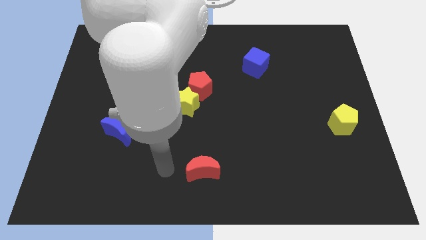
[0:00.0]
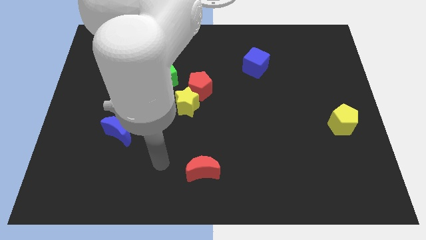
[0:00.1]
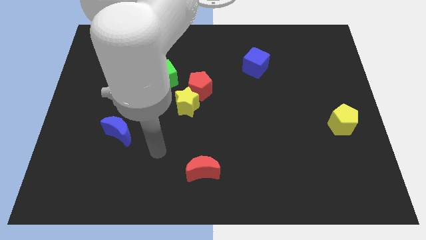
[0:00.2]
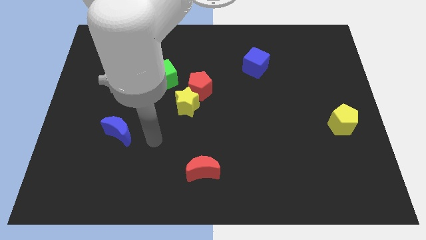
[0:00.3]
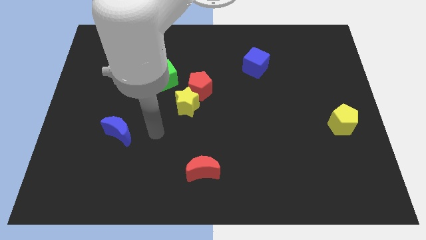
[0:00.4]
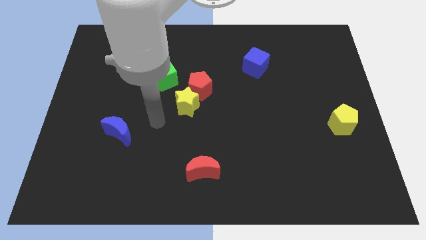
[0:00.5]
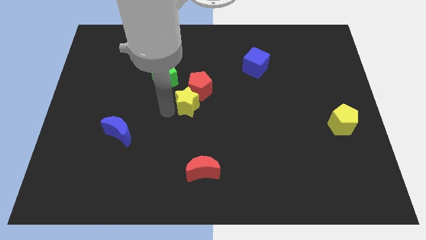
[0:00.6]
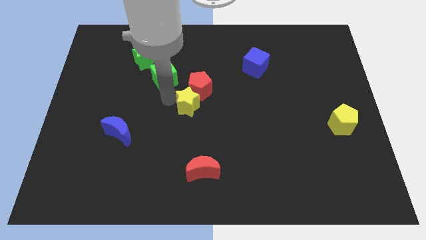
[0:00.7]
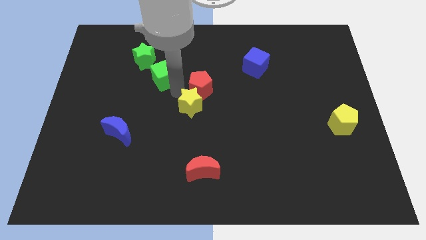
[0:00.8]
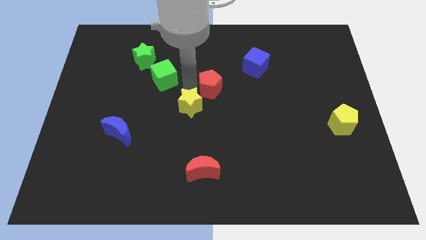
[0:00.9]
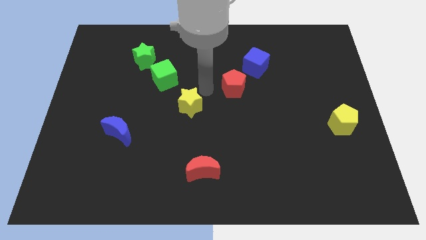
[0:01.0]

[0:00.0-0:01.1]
move the yellow star away from the red pentagon

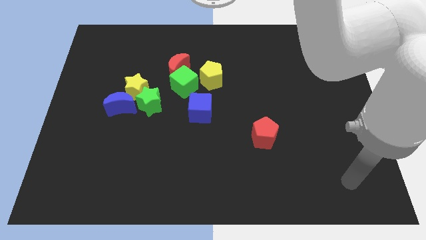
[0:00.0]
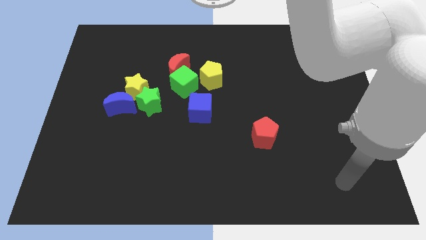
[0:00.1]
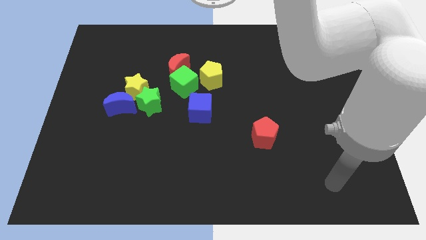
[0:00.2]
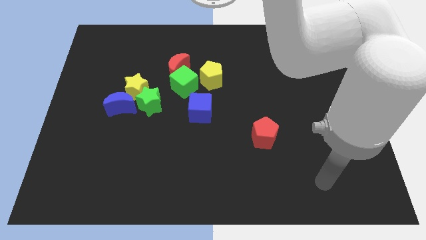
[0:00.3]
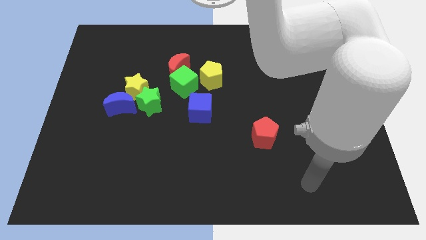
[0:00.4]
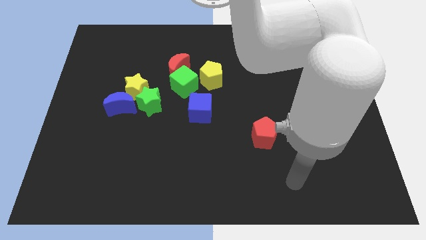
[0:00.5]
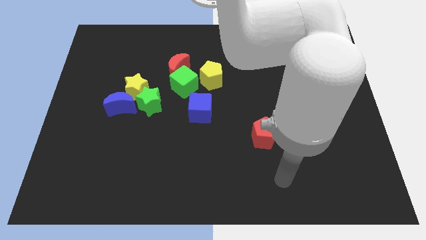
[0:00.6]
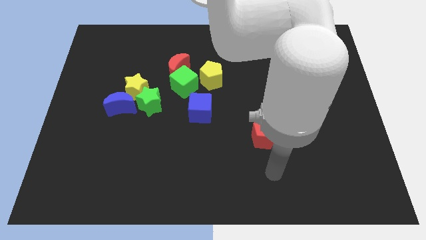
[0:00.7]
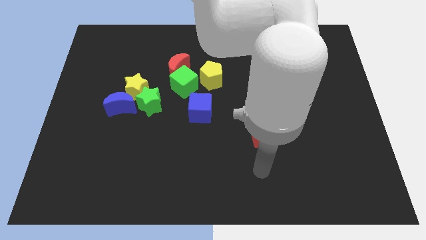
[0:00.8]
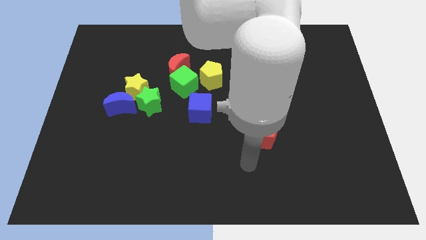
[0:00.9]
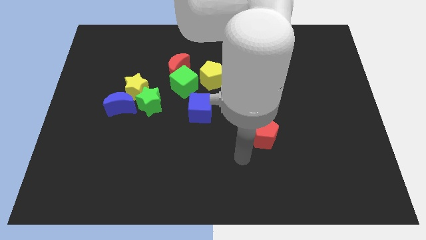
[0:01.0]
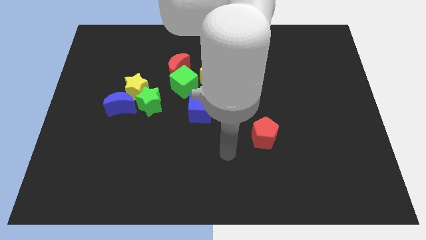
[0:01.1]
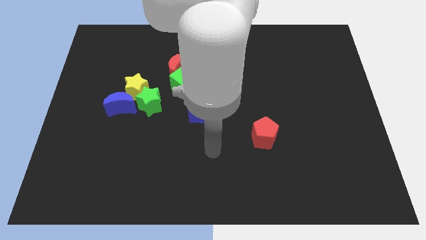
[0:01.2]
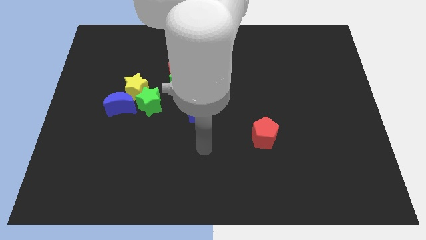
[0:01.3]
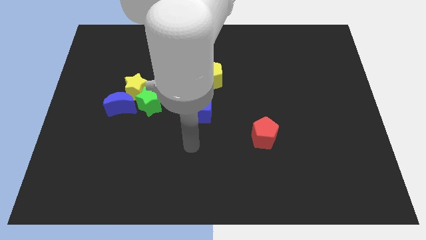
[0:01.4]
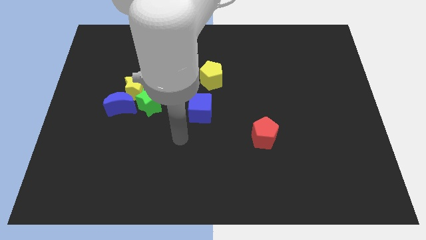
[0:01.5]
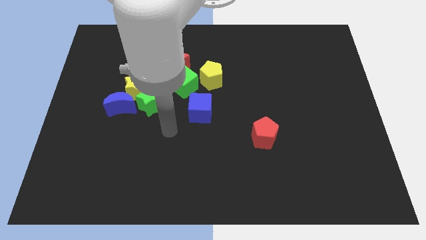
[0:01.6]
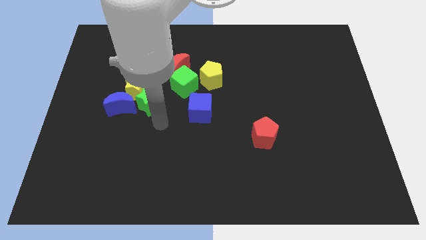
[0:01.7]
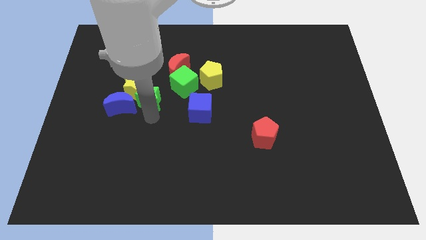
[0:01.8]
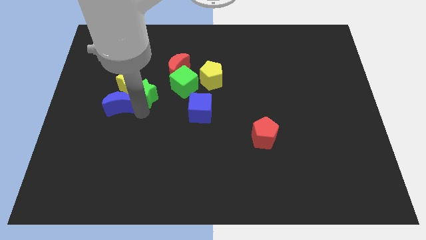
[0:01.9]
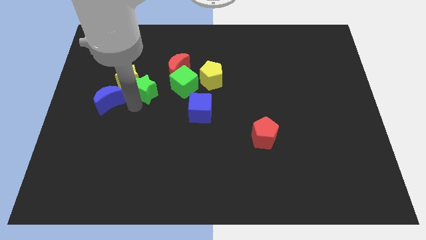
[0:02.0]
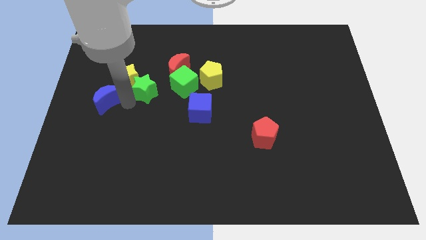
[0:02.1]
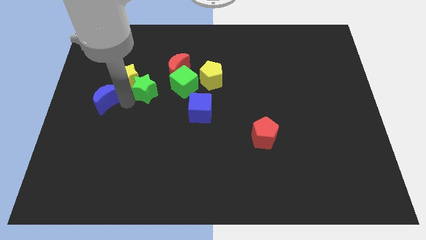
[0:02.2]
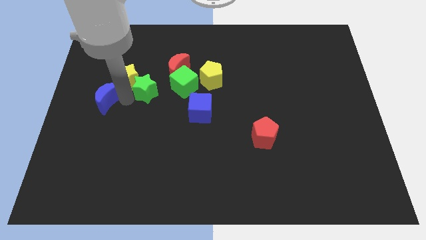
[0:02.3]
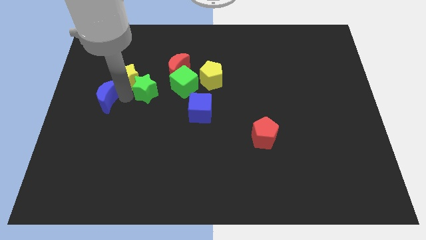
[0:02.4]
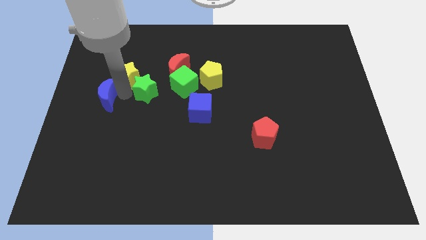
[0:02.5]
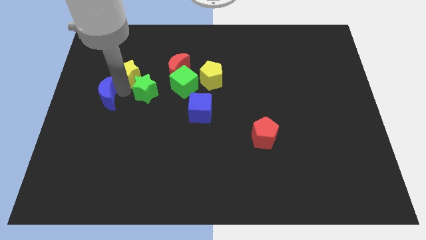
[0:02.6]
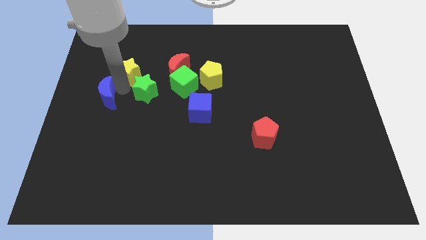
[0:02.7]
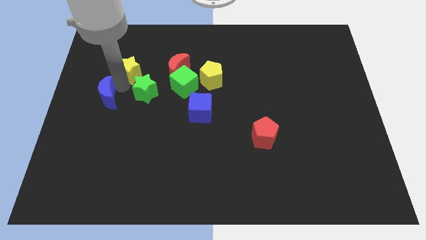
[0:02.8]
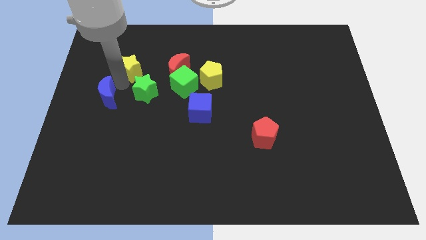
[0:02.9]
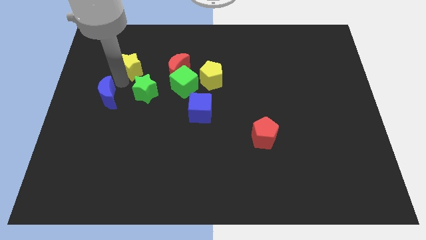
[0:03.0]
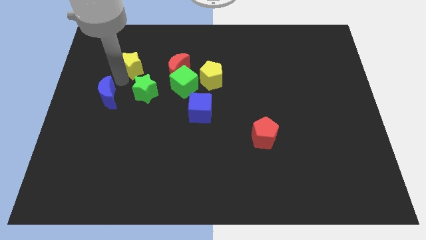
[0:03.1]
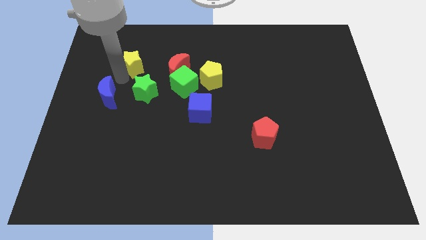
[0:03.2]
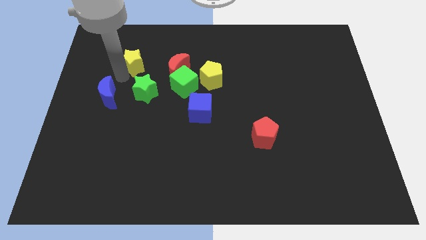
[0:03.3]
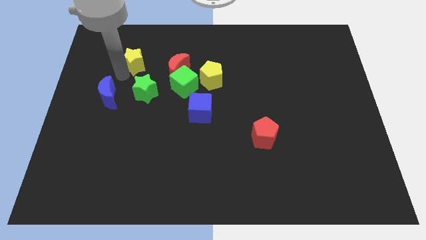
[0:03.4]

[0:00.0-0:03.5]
separate the yellow star from the green star and blue moon

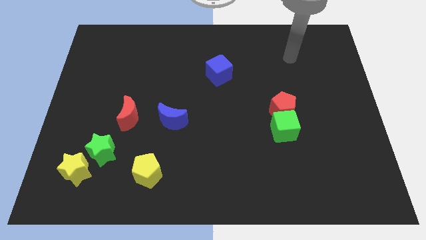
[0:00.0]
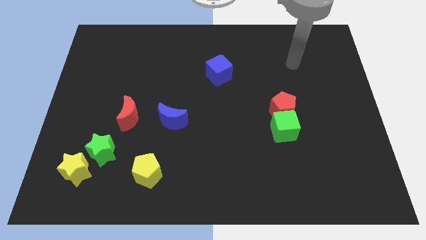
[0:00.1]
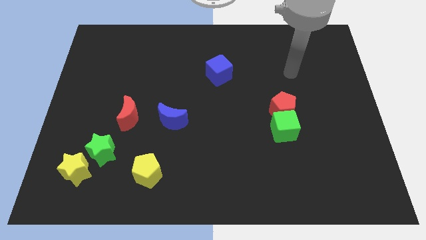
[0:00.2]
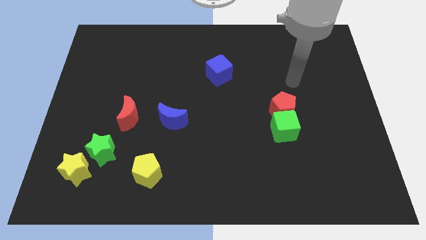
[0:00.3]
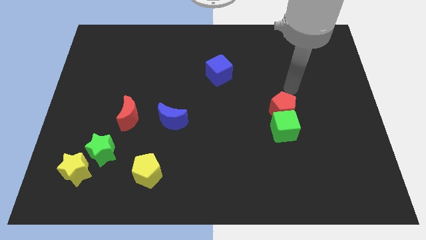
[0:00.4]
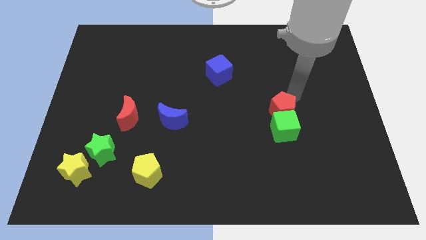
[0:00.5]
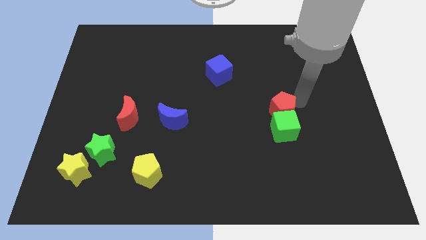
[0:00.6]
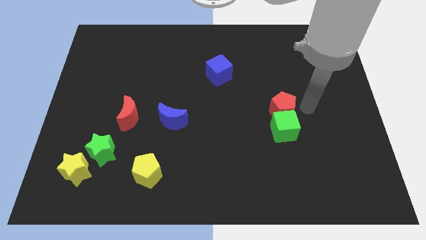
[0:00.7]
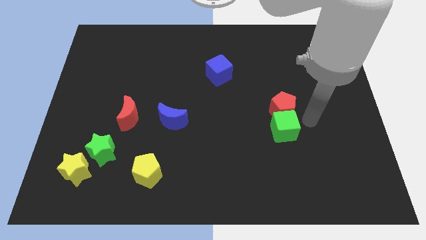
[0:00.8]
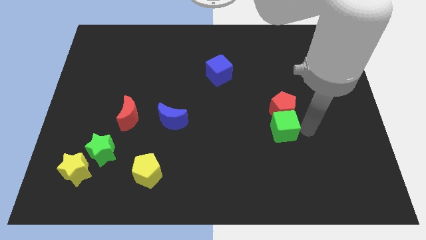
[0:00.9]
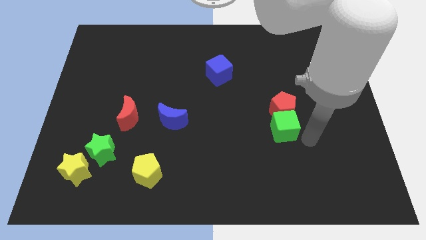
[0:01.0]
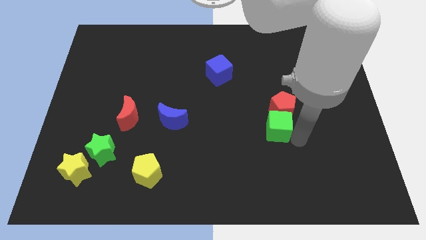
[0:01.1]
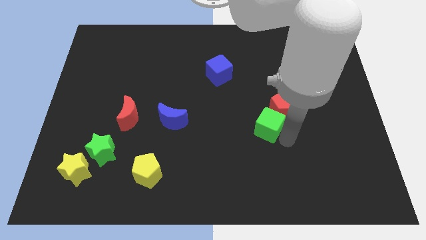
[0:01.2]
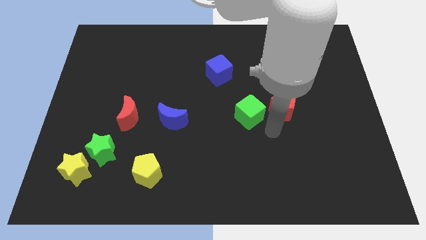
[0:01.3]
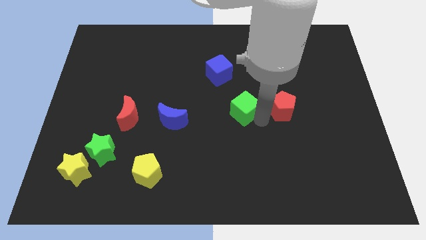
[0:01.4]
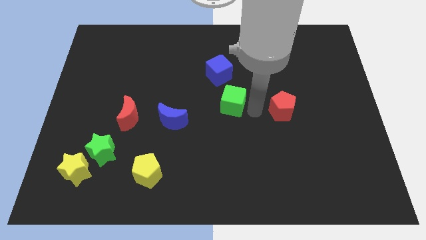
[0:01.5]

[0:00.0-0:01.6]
separate the red pentagon from the green cube

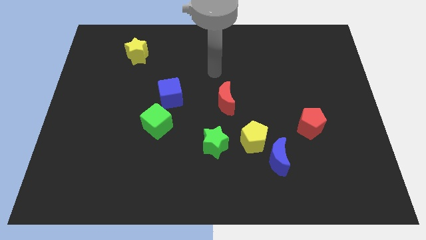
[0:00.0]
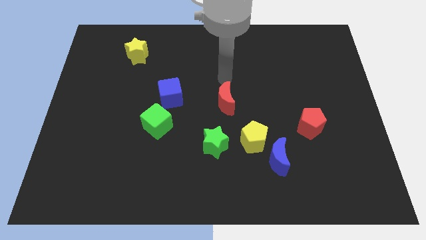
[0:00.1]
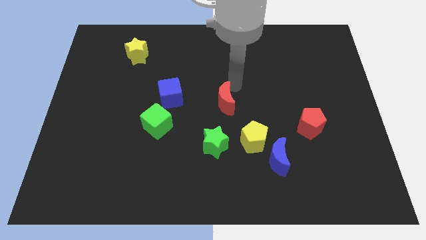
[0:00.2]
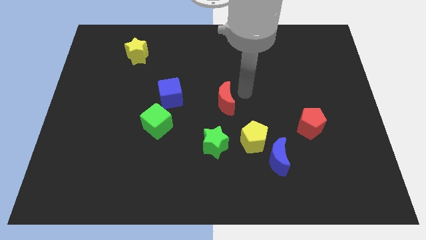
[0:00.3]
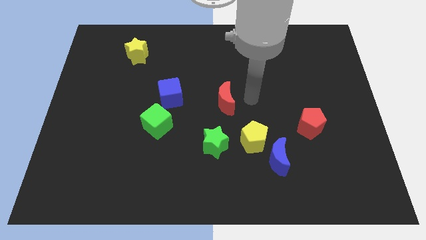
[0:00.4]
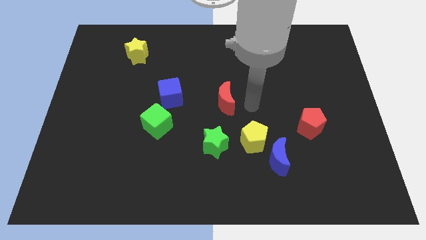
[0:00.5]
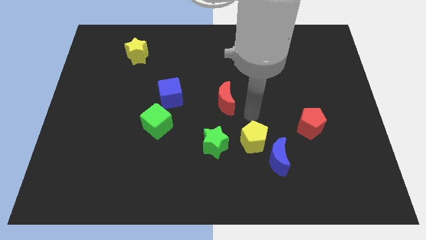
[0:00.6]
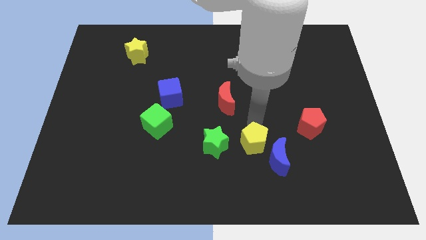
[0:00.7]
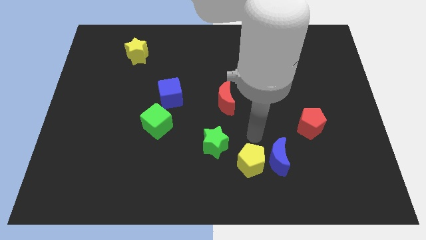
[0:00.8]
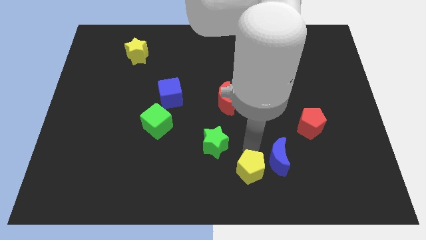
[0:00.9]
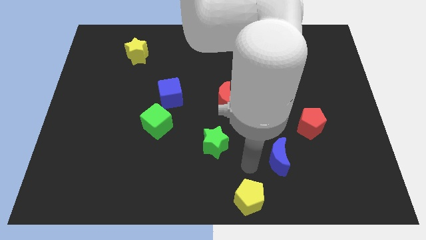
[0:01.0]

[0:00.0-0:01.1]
move the blue moon away from the yellow pentagon

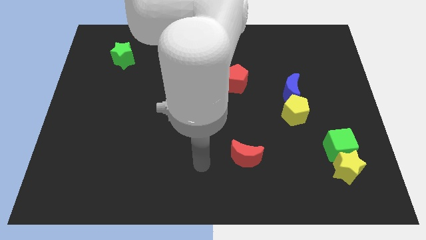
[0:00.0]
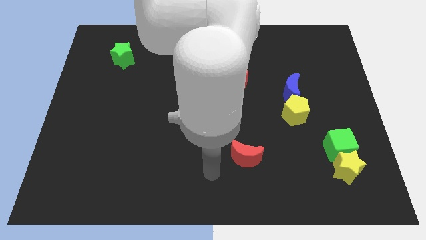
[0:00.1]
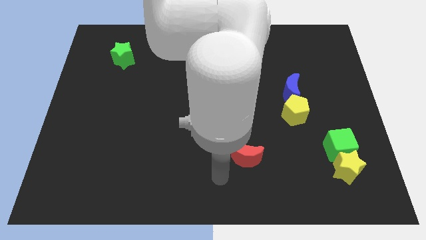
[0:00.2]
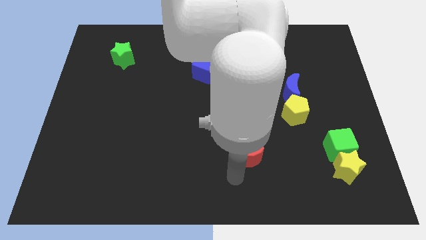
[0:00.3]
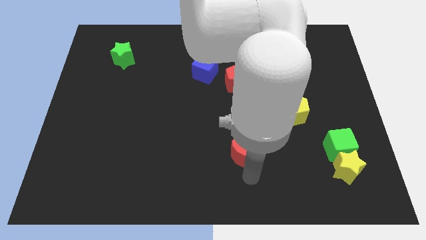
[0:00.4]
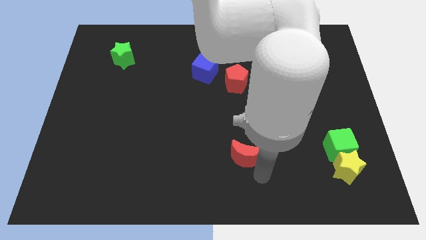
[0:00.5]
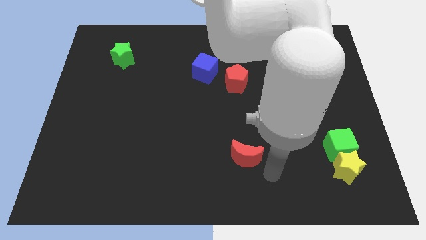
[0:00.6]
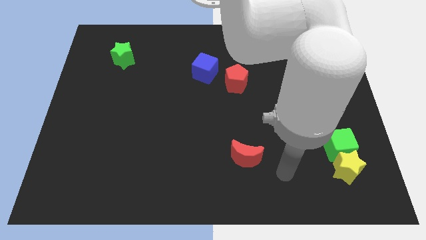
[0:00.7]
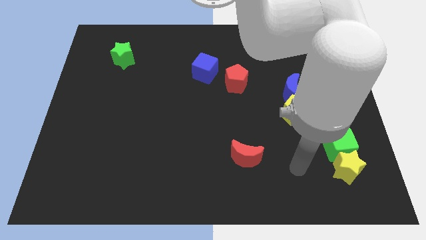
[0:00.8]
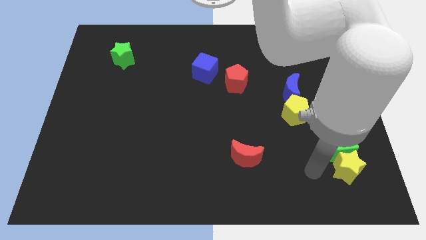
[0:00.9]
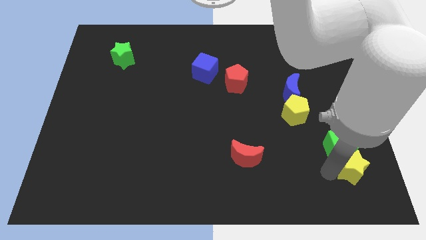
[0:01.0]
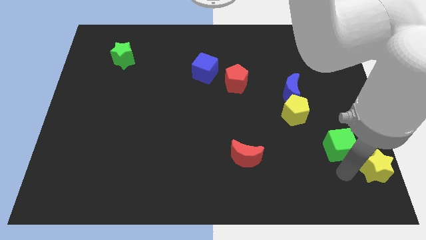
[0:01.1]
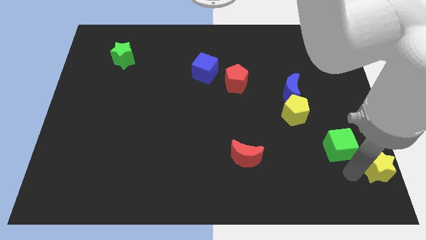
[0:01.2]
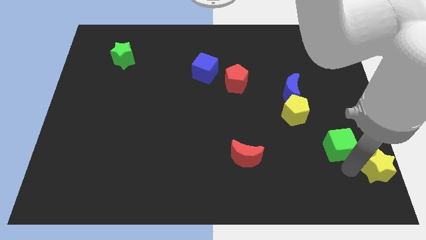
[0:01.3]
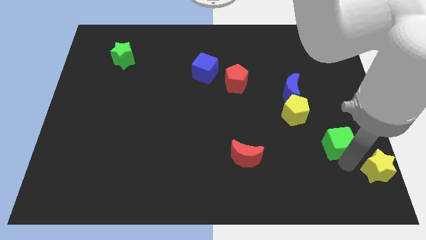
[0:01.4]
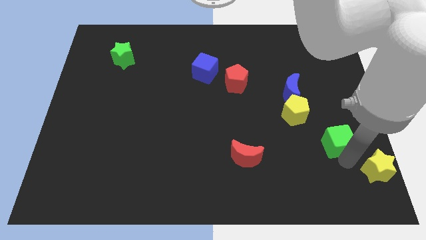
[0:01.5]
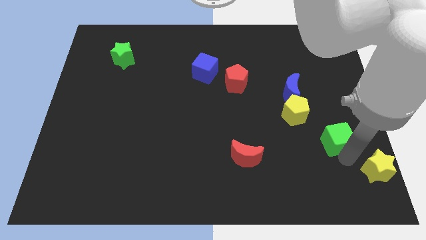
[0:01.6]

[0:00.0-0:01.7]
separate the green cube from the yellow star

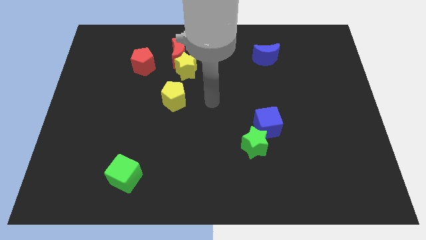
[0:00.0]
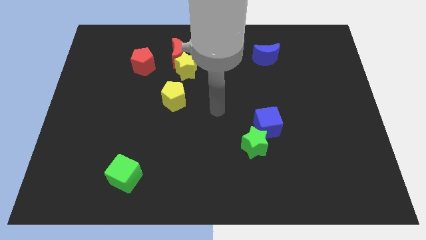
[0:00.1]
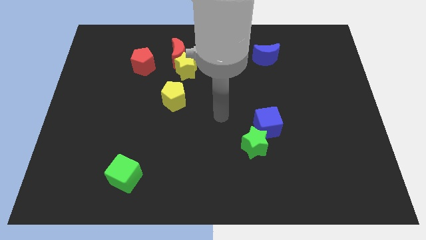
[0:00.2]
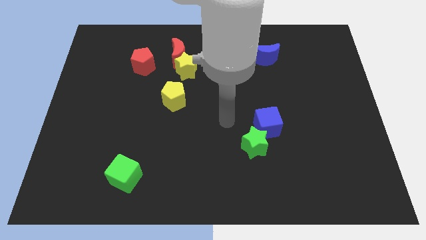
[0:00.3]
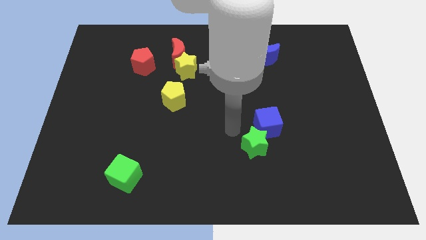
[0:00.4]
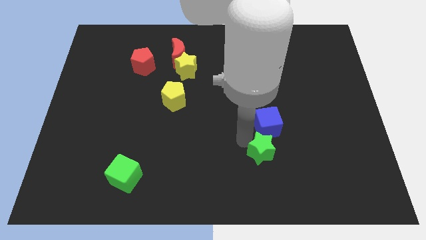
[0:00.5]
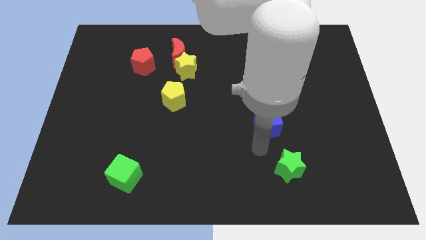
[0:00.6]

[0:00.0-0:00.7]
separate the blue cube from the green star
